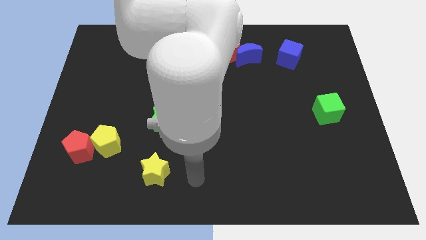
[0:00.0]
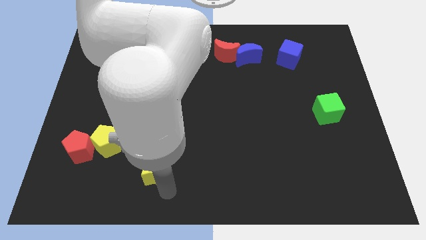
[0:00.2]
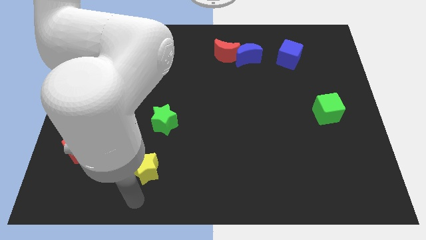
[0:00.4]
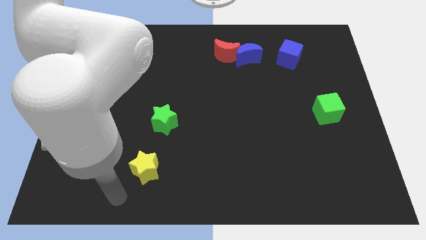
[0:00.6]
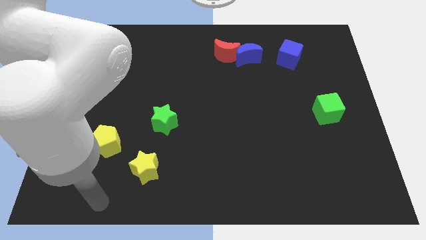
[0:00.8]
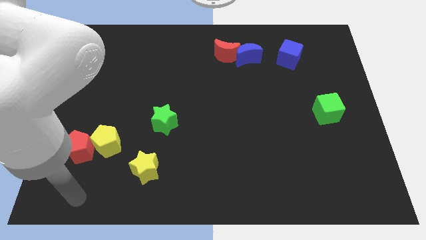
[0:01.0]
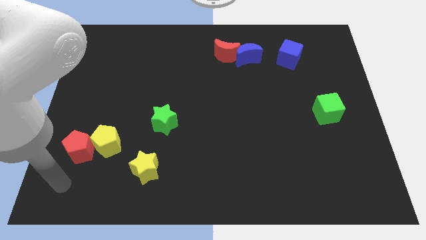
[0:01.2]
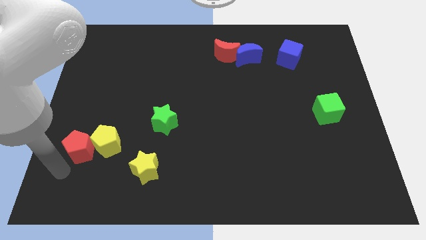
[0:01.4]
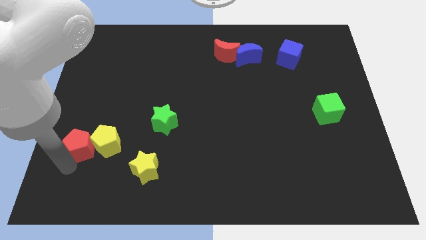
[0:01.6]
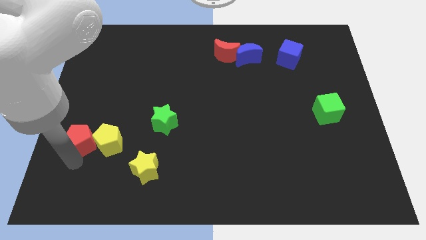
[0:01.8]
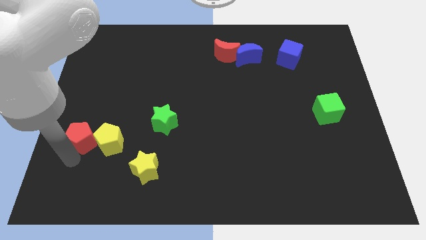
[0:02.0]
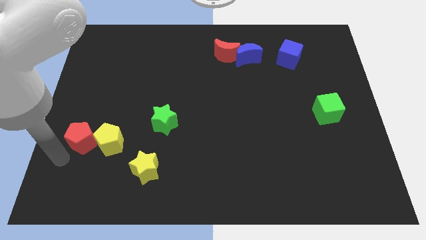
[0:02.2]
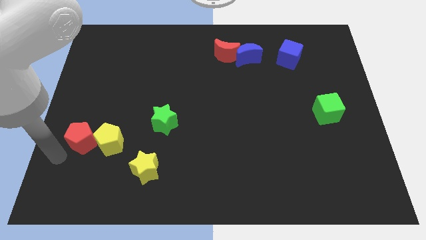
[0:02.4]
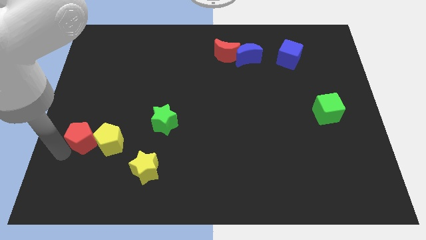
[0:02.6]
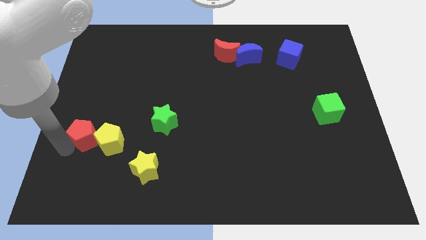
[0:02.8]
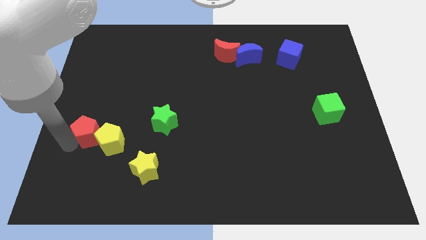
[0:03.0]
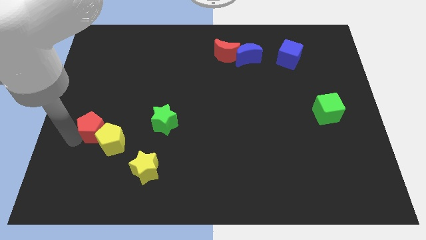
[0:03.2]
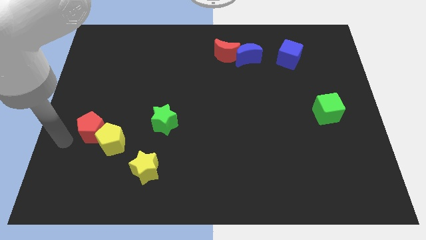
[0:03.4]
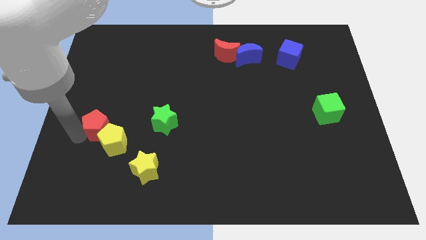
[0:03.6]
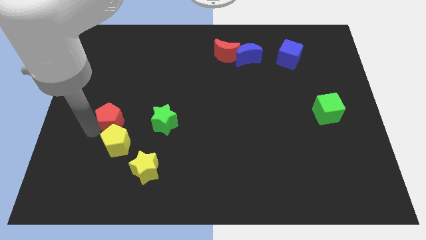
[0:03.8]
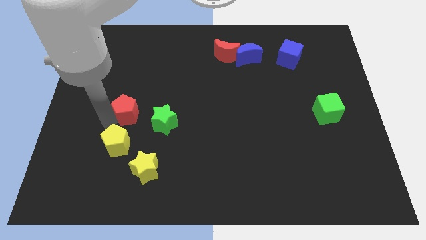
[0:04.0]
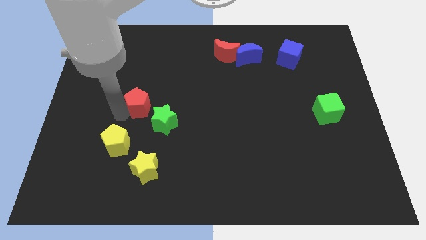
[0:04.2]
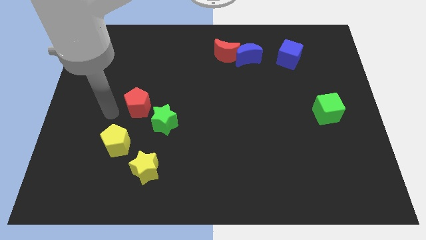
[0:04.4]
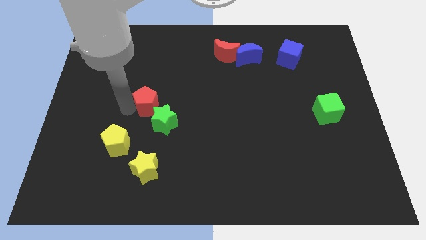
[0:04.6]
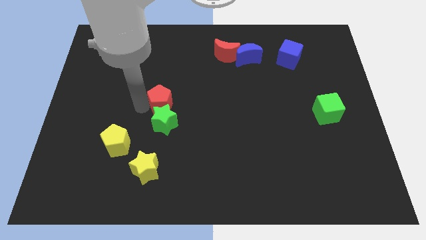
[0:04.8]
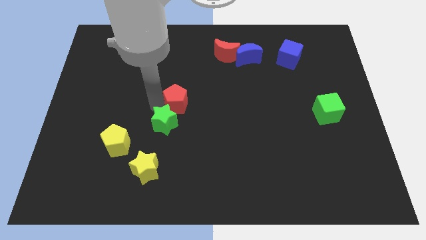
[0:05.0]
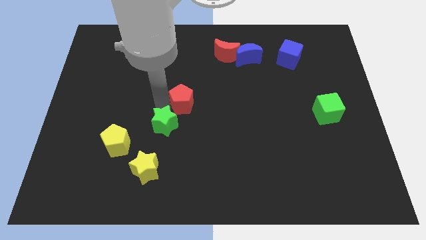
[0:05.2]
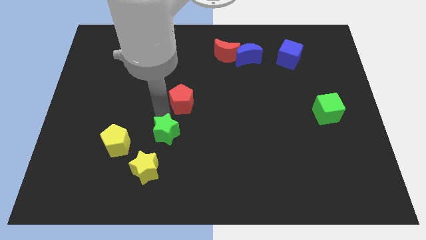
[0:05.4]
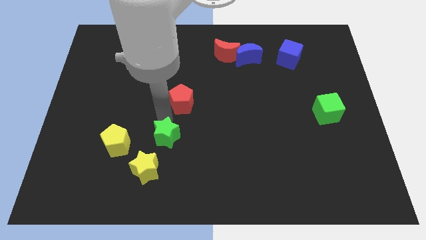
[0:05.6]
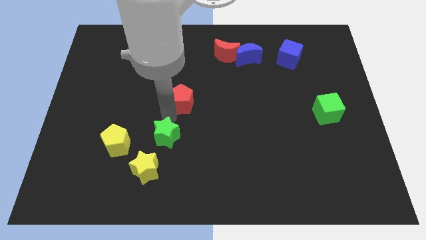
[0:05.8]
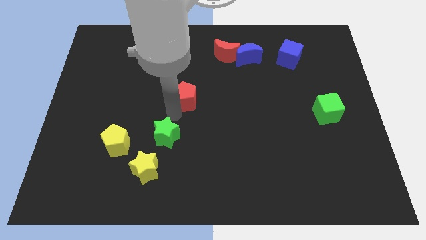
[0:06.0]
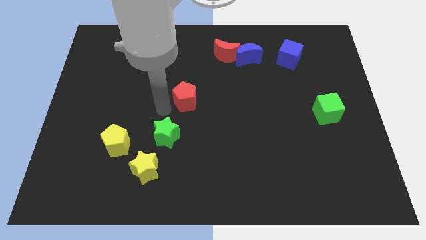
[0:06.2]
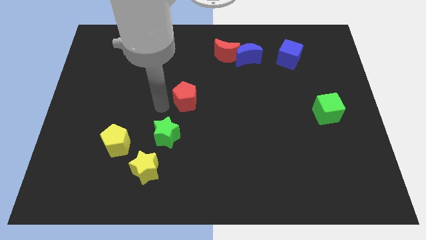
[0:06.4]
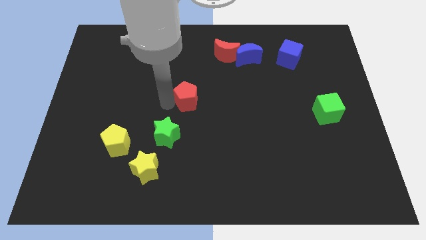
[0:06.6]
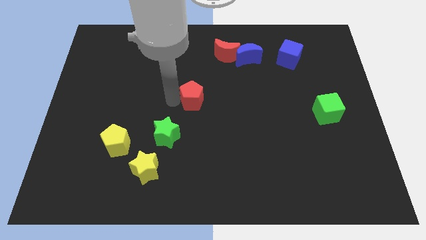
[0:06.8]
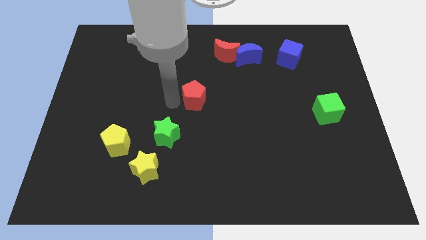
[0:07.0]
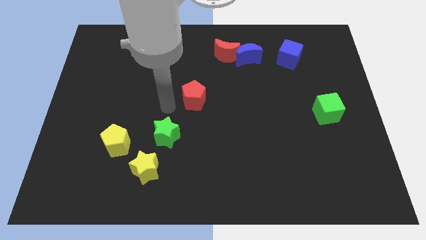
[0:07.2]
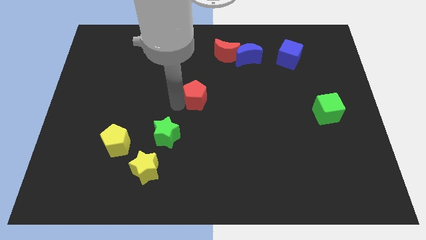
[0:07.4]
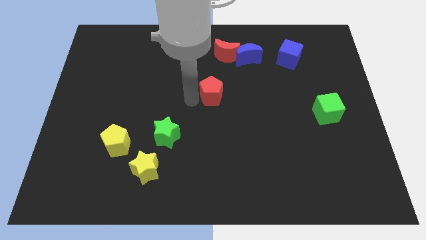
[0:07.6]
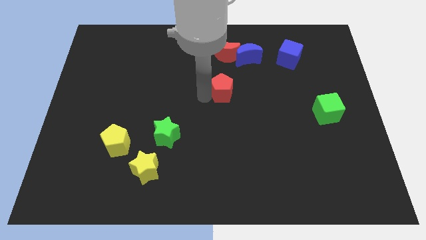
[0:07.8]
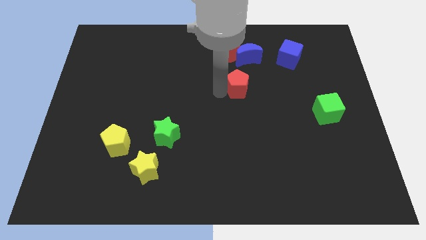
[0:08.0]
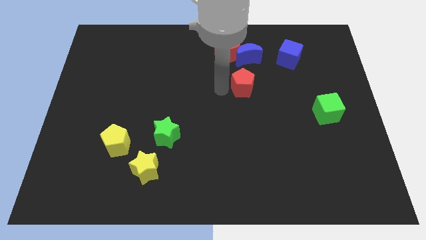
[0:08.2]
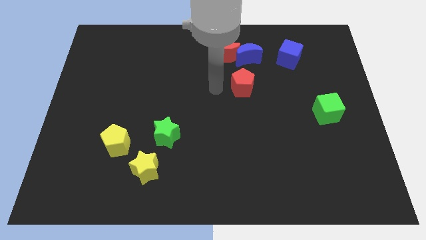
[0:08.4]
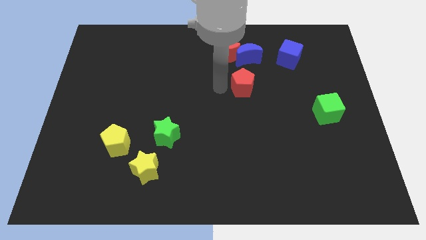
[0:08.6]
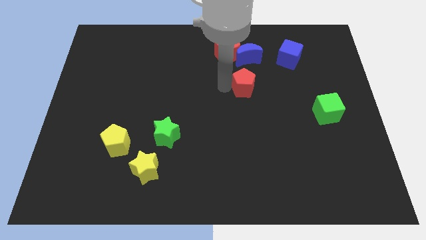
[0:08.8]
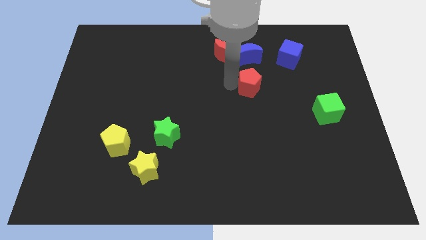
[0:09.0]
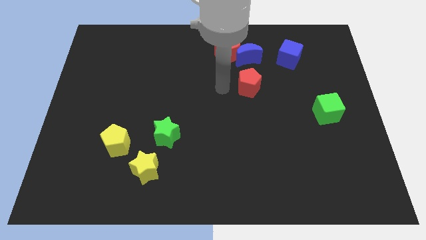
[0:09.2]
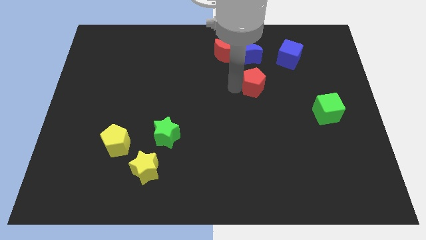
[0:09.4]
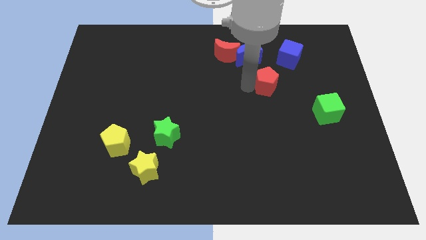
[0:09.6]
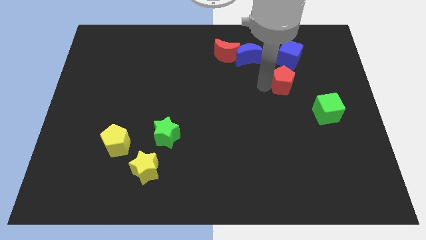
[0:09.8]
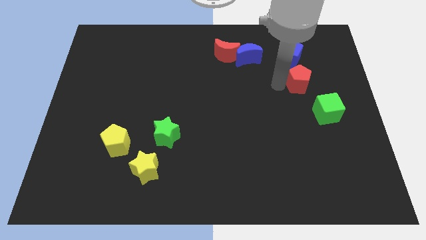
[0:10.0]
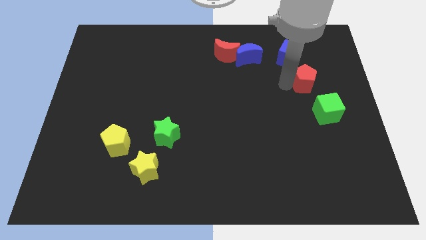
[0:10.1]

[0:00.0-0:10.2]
slide the red pentagon above the green cube

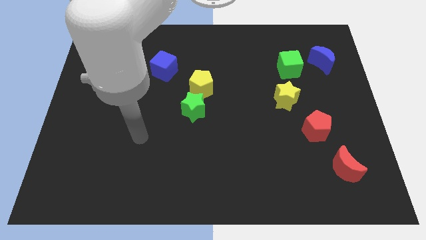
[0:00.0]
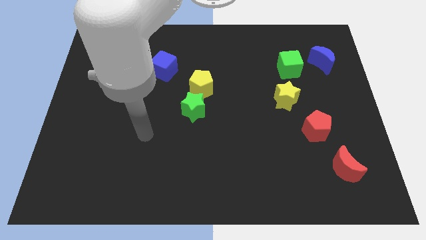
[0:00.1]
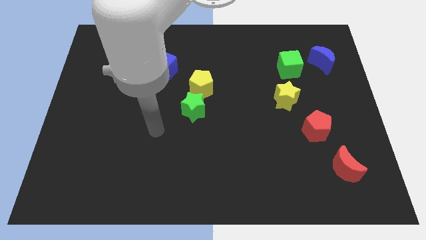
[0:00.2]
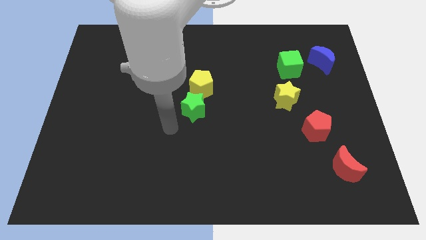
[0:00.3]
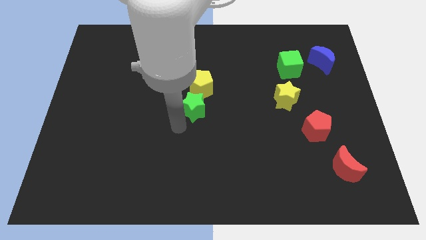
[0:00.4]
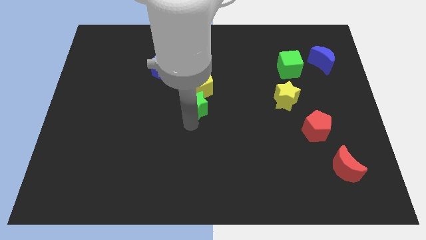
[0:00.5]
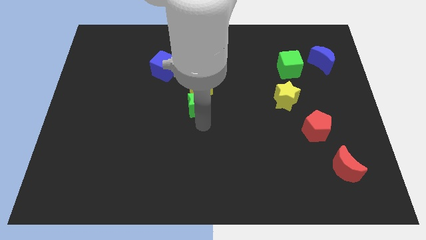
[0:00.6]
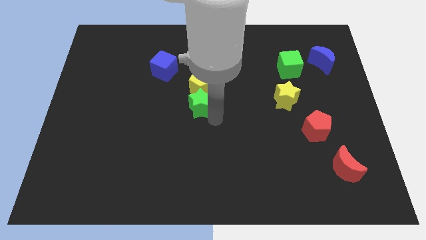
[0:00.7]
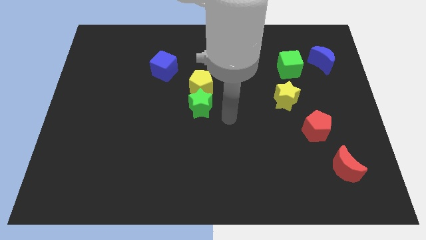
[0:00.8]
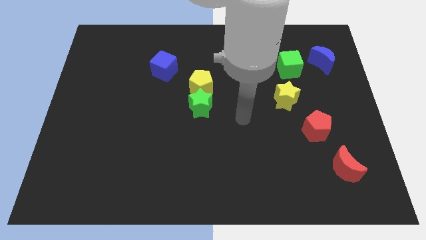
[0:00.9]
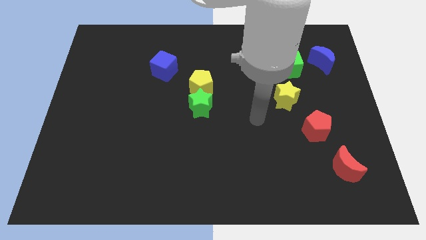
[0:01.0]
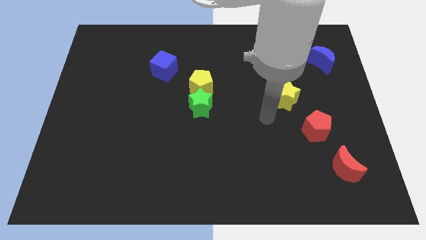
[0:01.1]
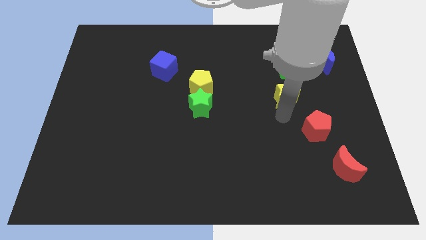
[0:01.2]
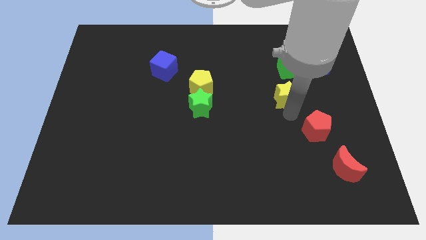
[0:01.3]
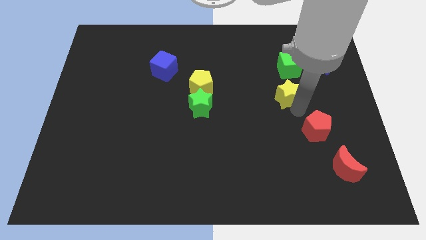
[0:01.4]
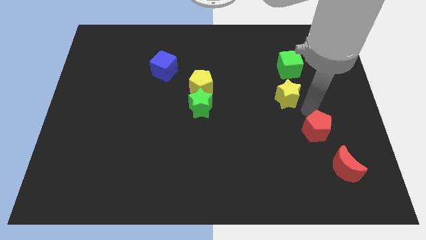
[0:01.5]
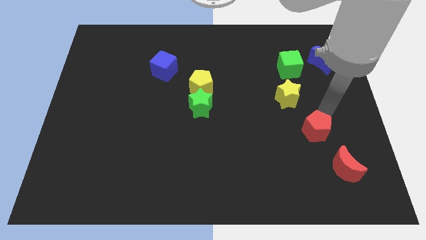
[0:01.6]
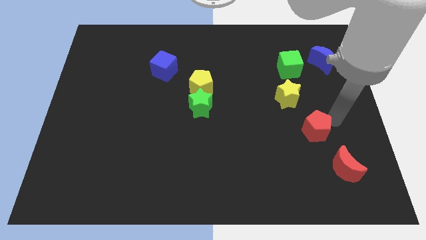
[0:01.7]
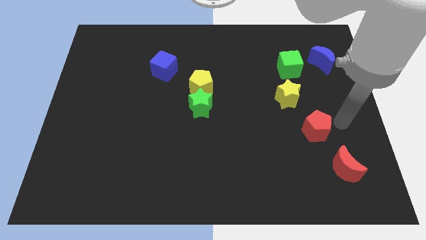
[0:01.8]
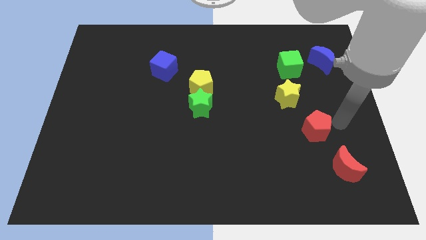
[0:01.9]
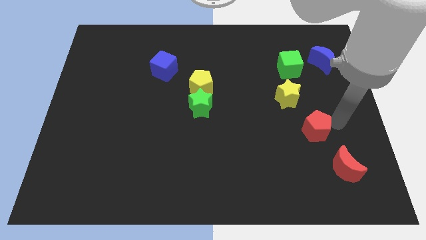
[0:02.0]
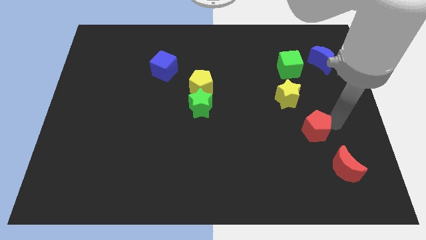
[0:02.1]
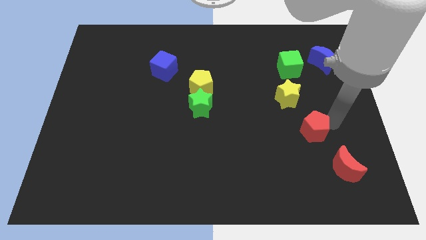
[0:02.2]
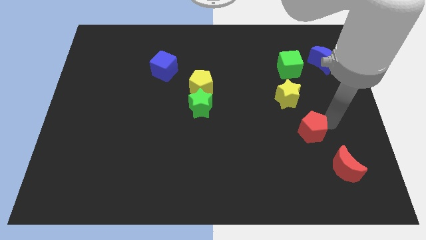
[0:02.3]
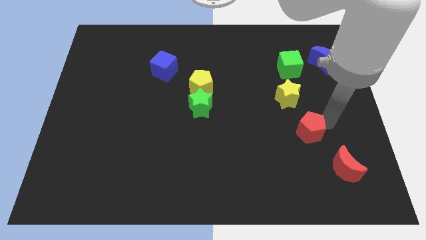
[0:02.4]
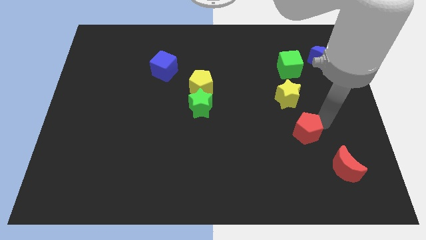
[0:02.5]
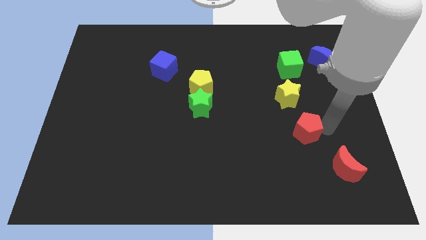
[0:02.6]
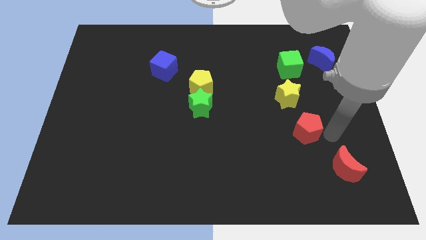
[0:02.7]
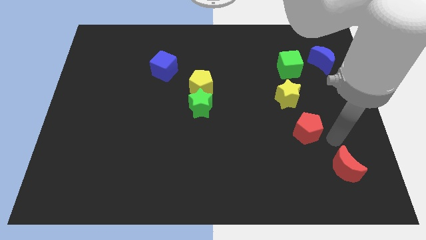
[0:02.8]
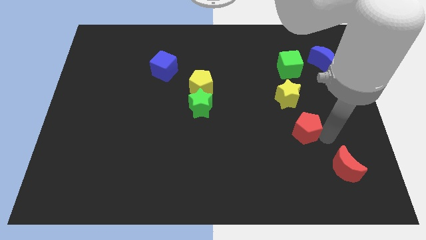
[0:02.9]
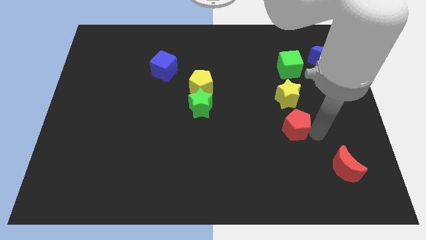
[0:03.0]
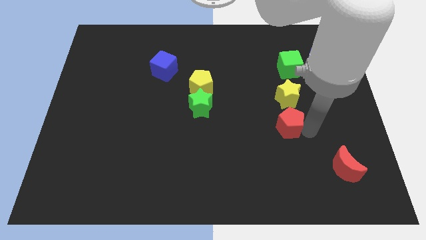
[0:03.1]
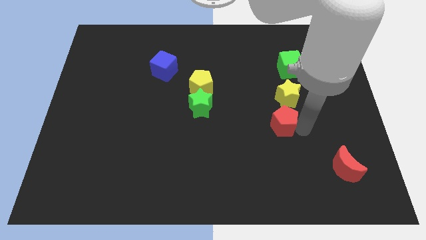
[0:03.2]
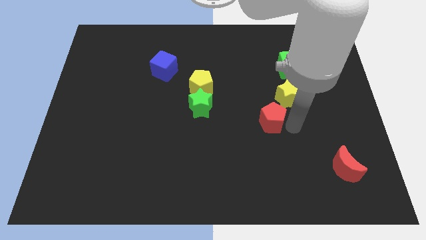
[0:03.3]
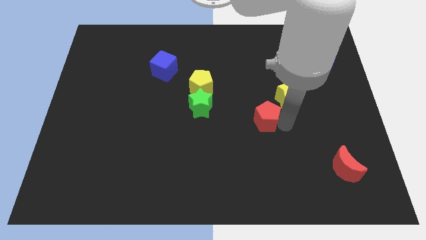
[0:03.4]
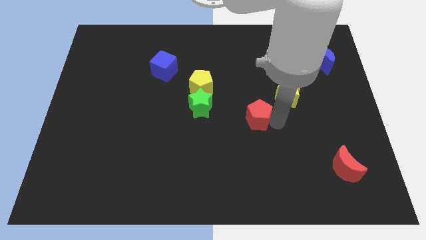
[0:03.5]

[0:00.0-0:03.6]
put the red pentagon to the right of the green star
